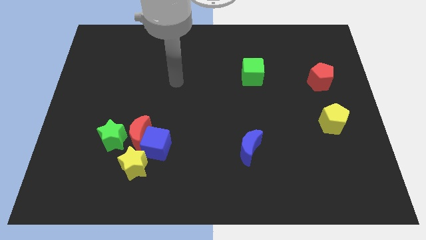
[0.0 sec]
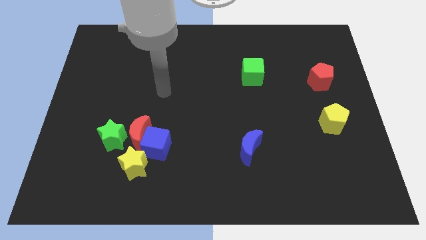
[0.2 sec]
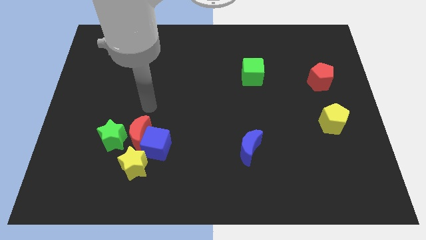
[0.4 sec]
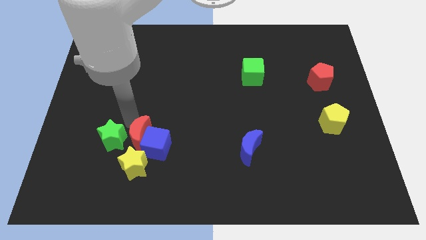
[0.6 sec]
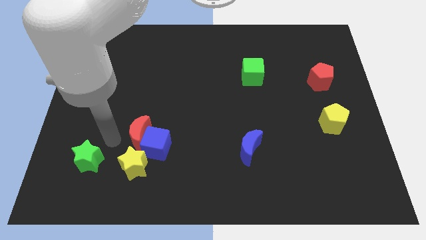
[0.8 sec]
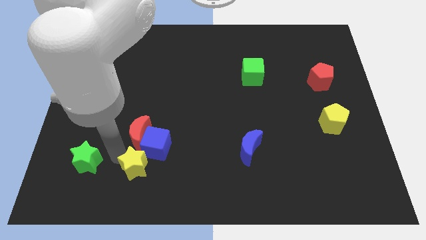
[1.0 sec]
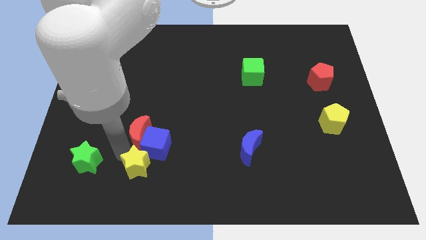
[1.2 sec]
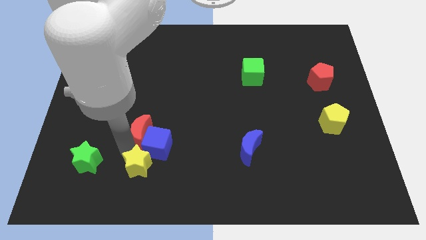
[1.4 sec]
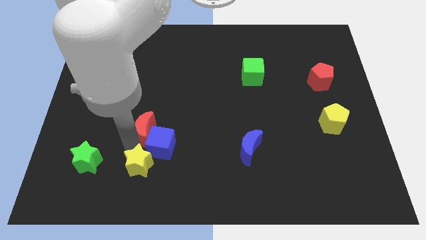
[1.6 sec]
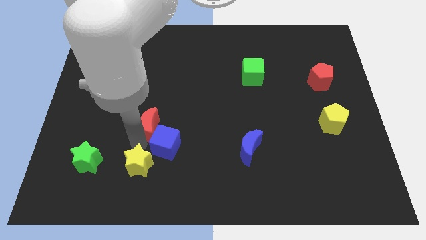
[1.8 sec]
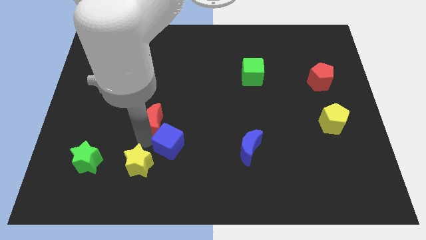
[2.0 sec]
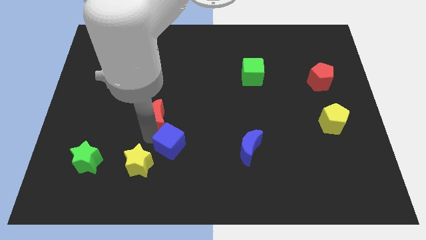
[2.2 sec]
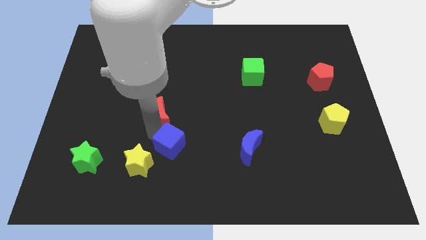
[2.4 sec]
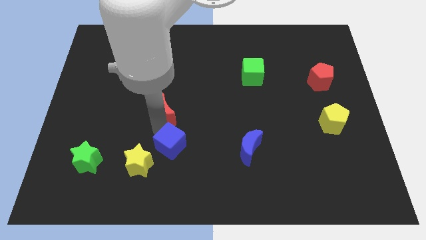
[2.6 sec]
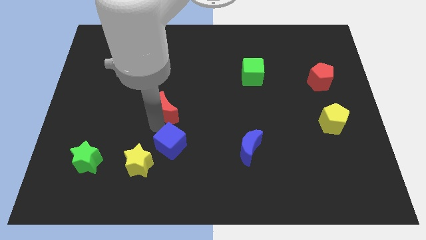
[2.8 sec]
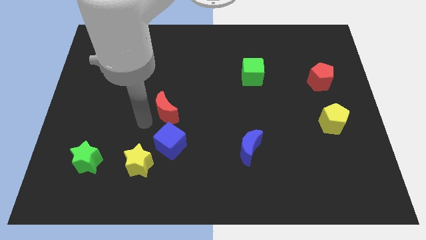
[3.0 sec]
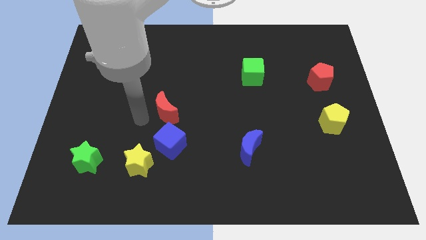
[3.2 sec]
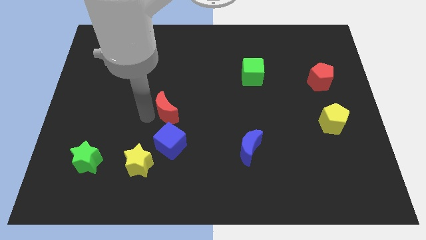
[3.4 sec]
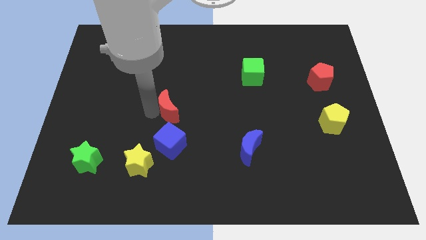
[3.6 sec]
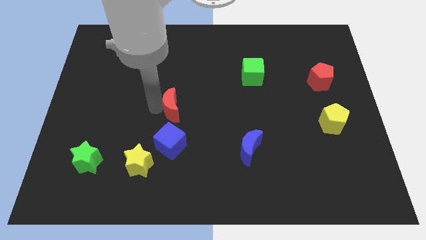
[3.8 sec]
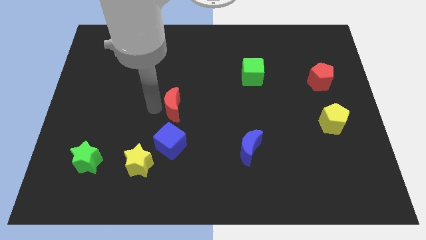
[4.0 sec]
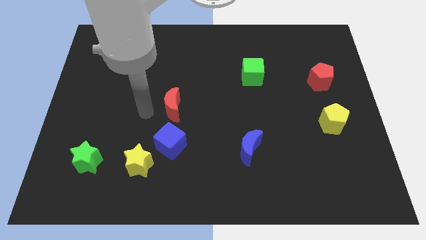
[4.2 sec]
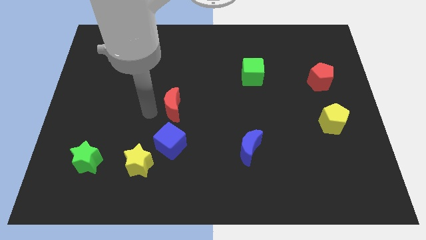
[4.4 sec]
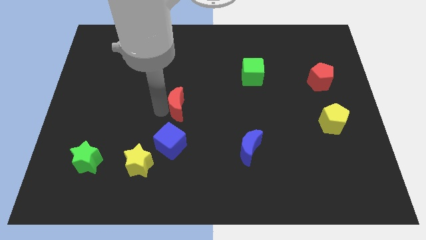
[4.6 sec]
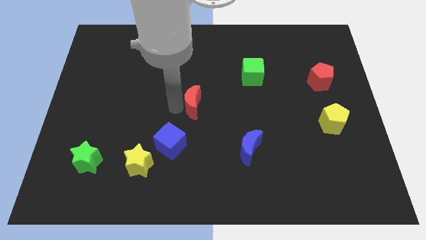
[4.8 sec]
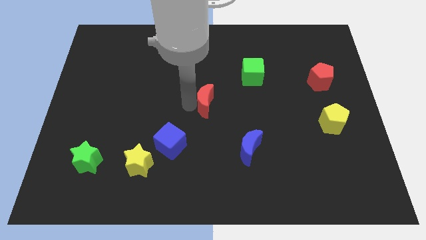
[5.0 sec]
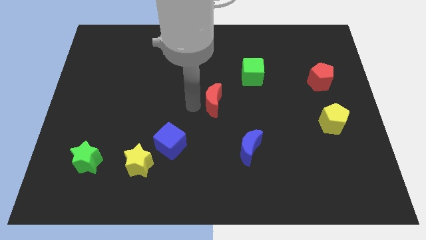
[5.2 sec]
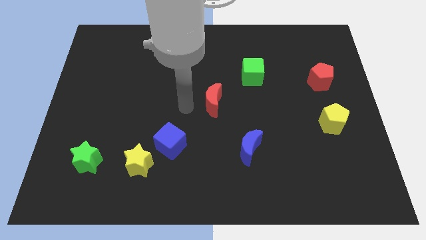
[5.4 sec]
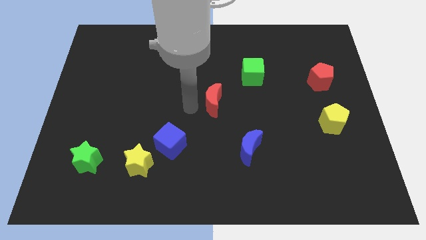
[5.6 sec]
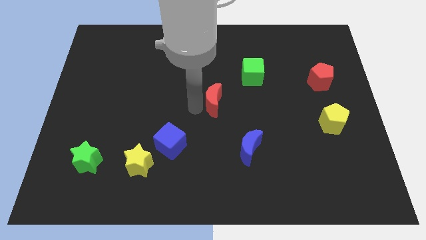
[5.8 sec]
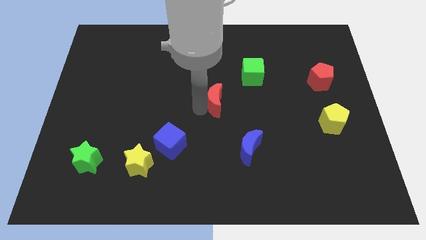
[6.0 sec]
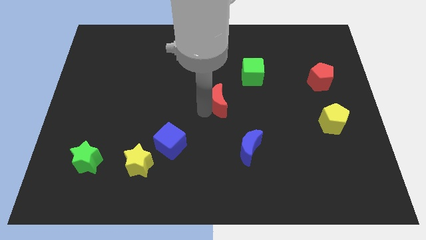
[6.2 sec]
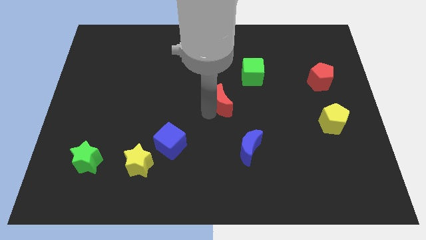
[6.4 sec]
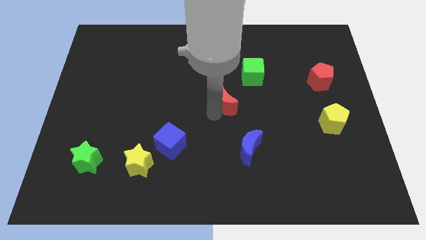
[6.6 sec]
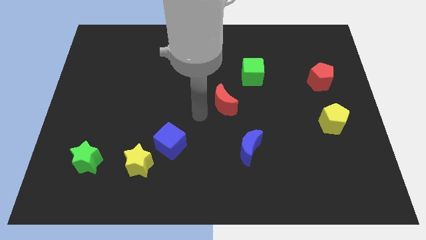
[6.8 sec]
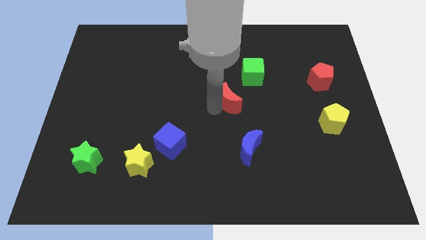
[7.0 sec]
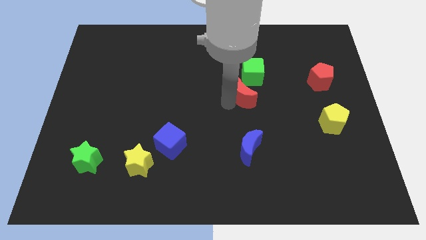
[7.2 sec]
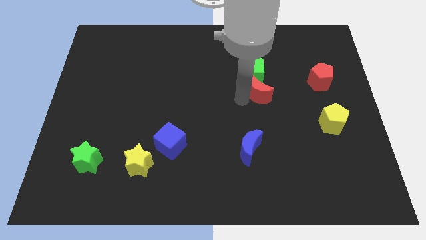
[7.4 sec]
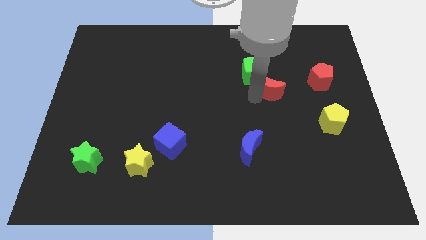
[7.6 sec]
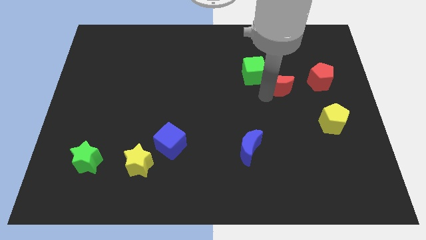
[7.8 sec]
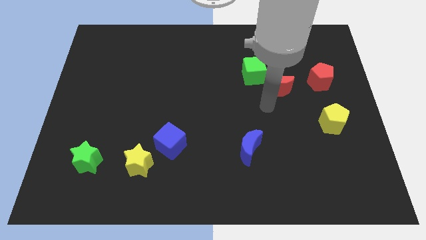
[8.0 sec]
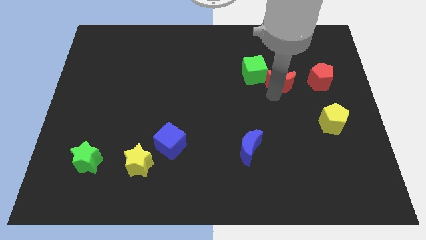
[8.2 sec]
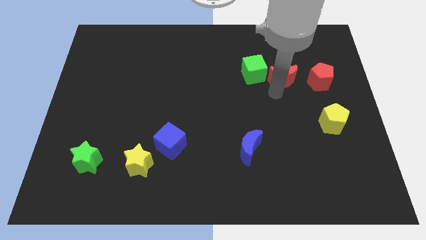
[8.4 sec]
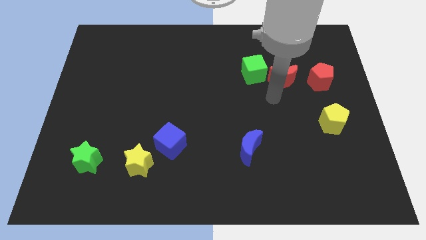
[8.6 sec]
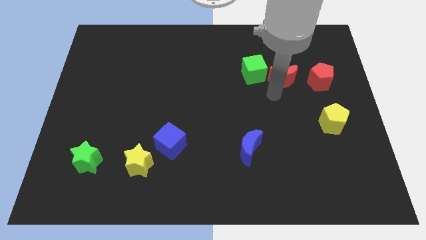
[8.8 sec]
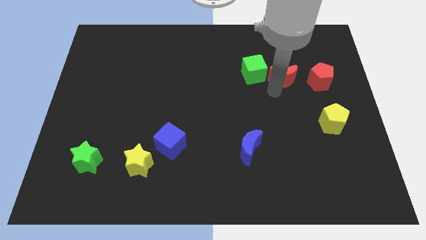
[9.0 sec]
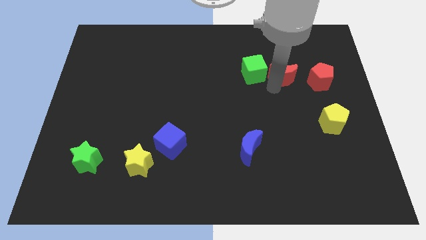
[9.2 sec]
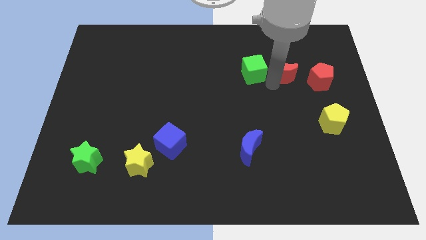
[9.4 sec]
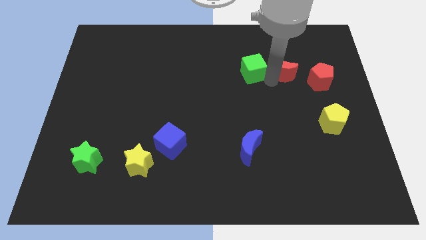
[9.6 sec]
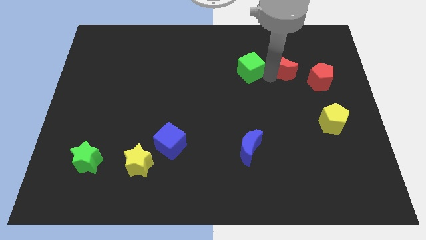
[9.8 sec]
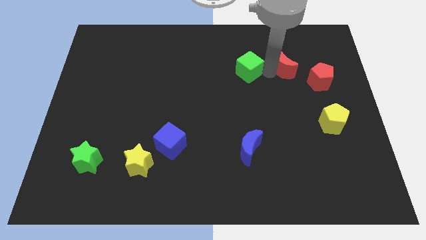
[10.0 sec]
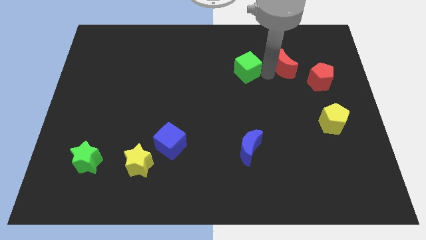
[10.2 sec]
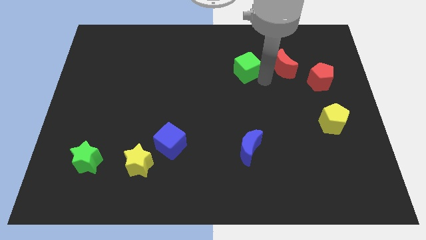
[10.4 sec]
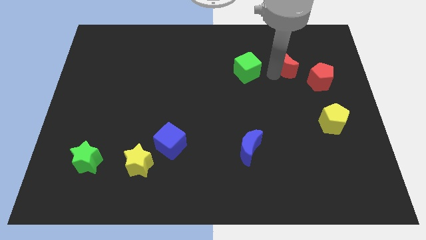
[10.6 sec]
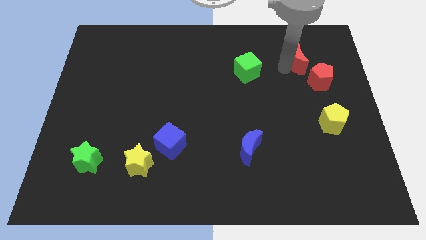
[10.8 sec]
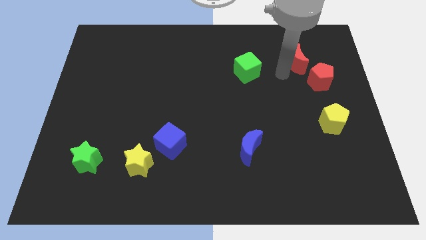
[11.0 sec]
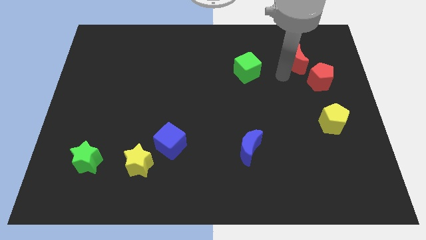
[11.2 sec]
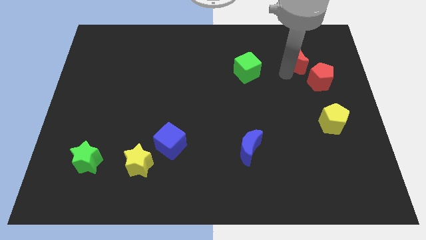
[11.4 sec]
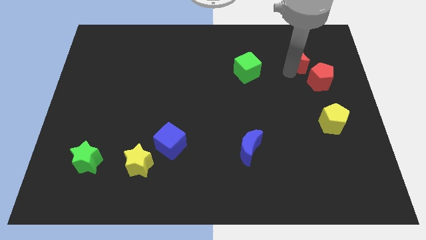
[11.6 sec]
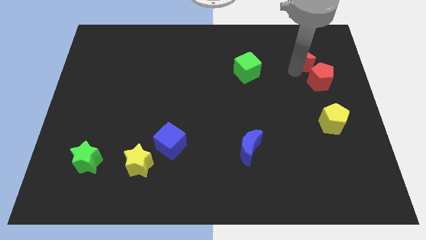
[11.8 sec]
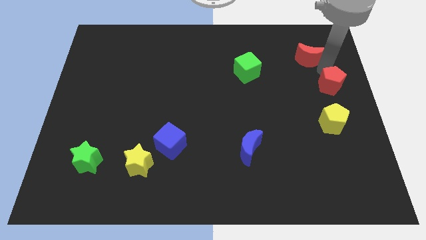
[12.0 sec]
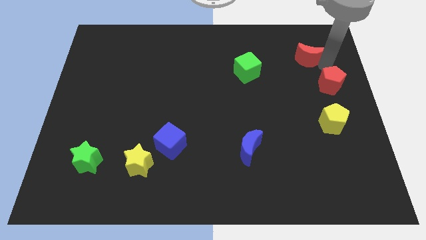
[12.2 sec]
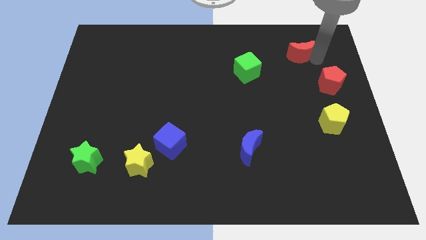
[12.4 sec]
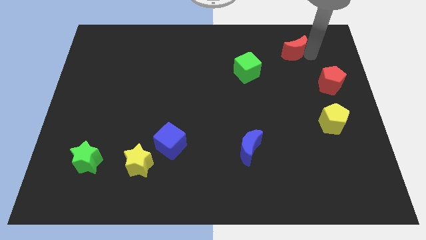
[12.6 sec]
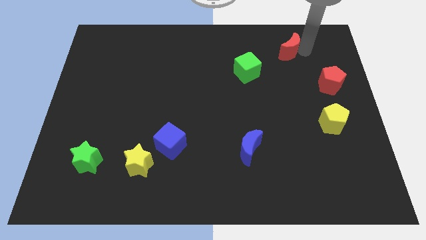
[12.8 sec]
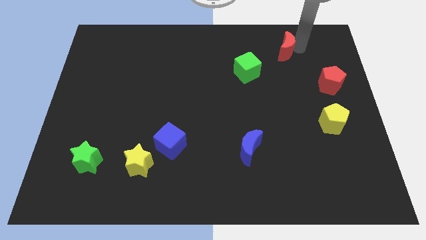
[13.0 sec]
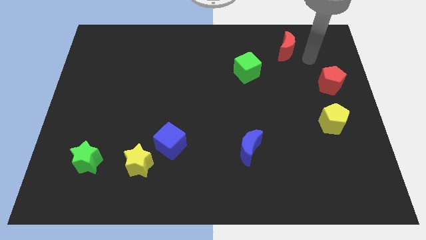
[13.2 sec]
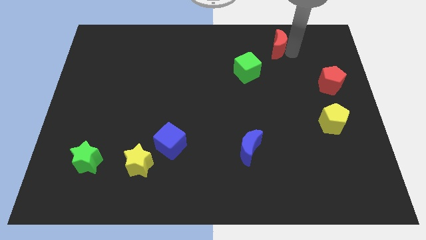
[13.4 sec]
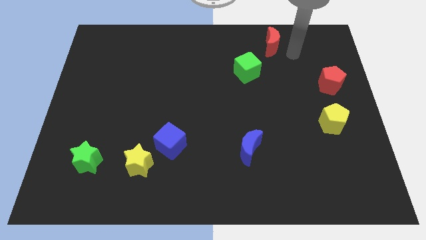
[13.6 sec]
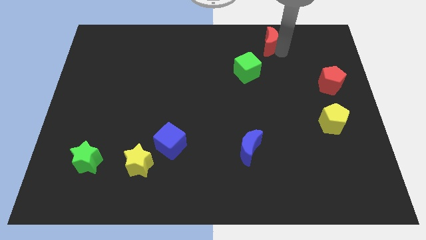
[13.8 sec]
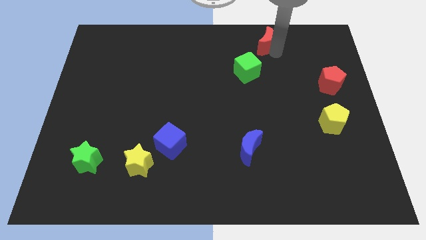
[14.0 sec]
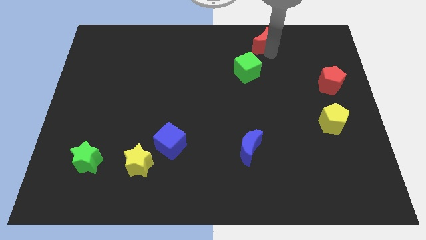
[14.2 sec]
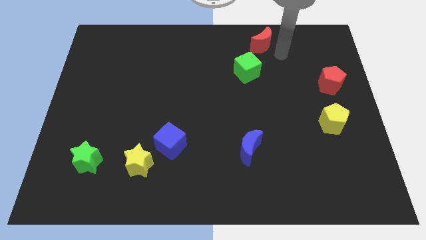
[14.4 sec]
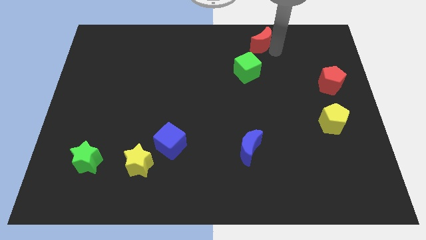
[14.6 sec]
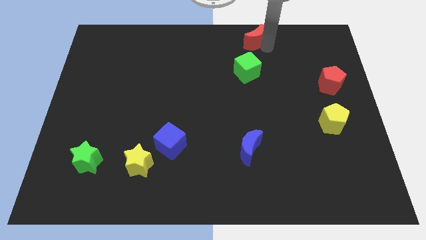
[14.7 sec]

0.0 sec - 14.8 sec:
slide the red moon to the towards your base
